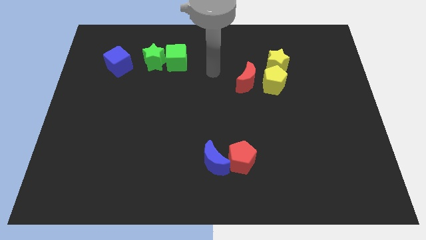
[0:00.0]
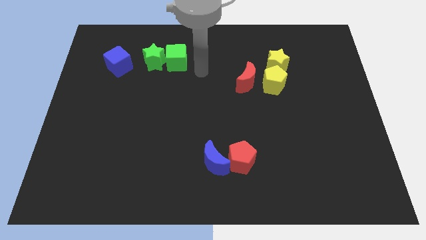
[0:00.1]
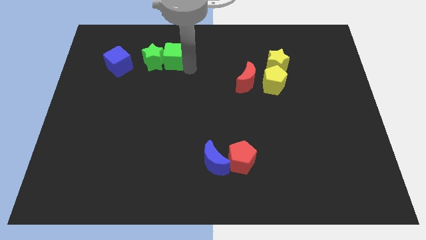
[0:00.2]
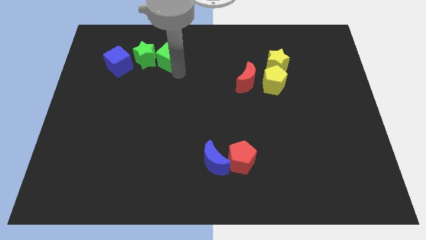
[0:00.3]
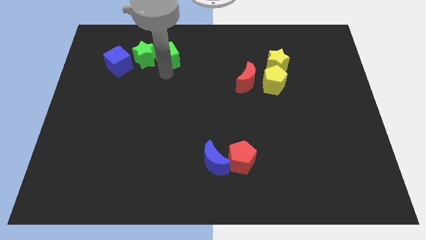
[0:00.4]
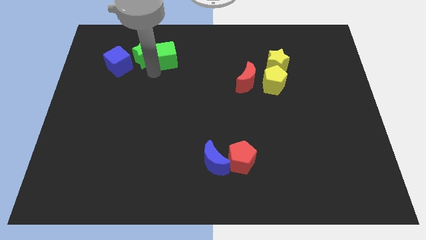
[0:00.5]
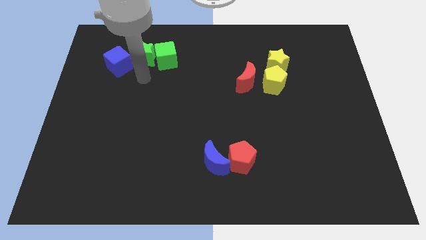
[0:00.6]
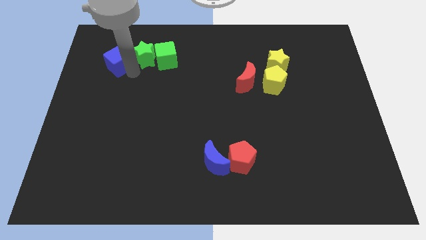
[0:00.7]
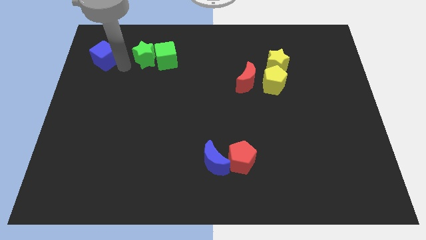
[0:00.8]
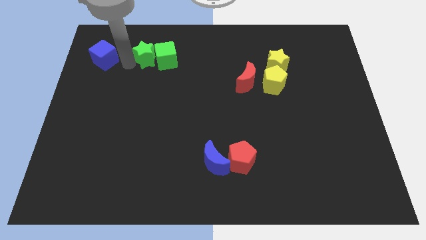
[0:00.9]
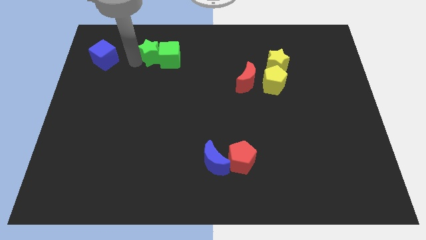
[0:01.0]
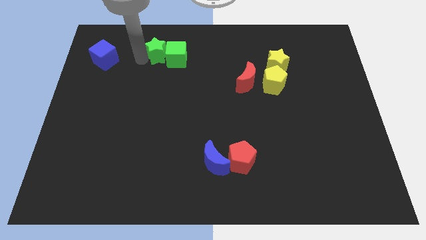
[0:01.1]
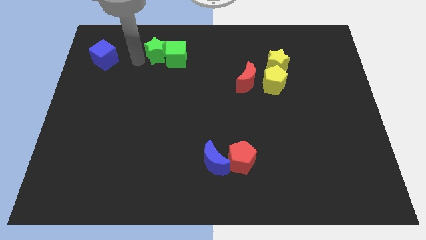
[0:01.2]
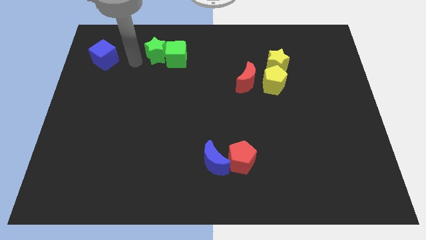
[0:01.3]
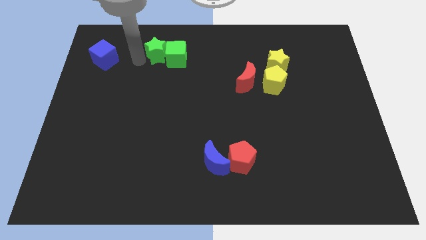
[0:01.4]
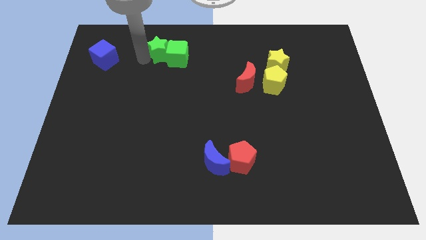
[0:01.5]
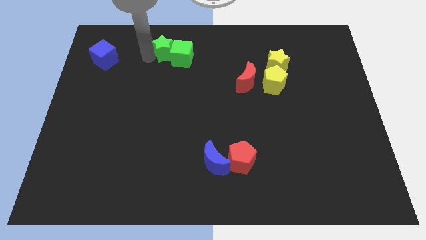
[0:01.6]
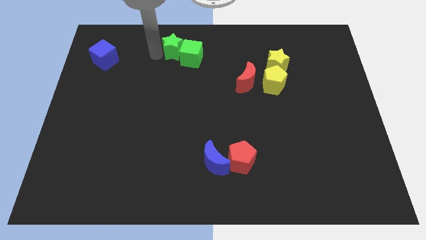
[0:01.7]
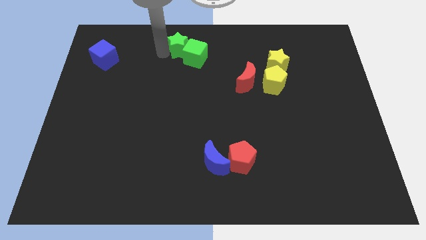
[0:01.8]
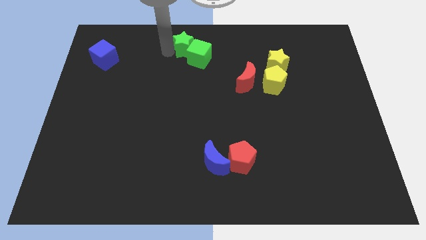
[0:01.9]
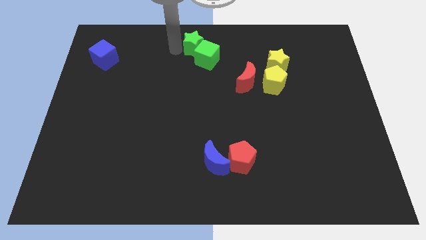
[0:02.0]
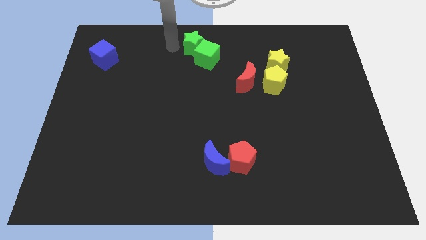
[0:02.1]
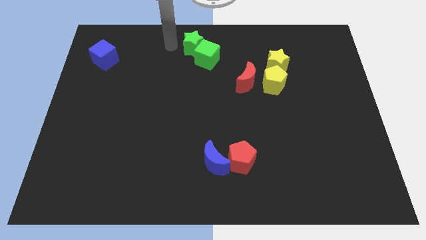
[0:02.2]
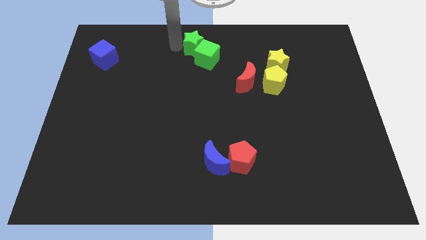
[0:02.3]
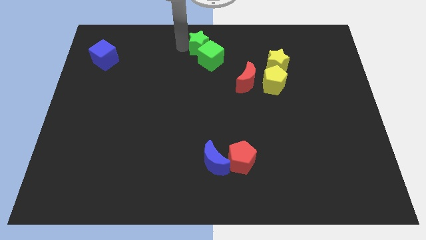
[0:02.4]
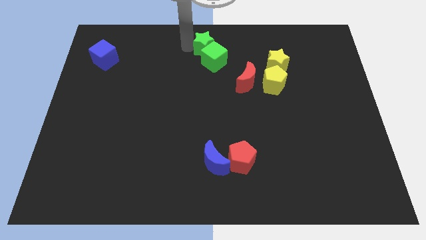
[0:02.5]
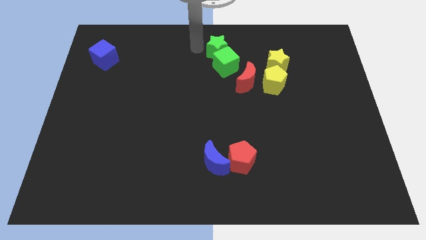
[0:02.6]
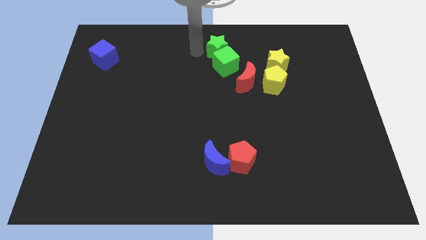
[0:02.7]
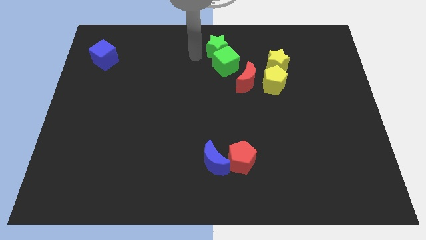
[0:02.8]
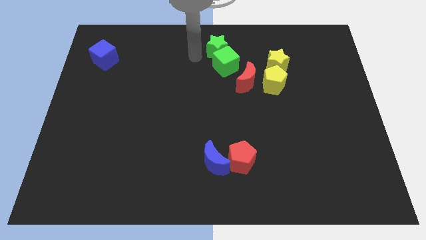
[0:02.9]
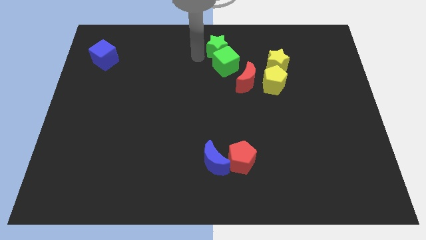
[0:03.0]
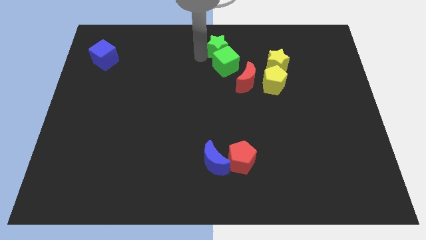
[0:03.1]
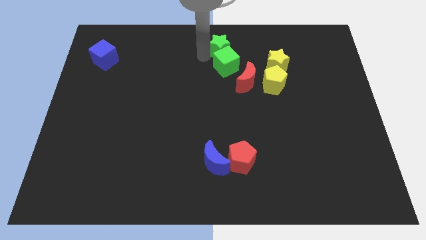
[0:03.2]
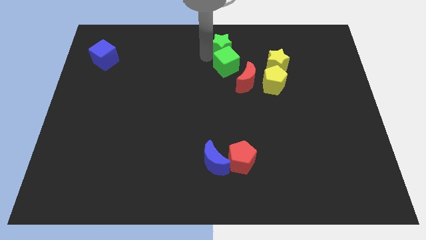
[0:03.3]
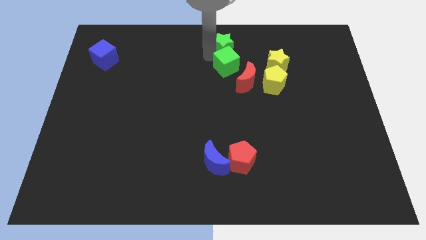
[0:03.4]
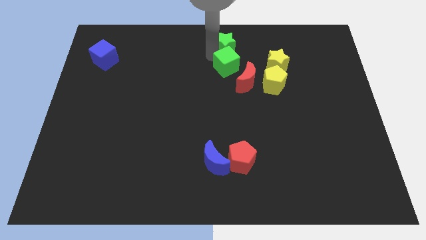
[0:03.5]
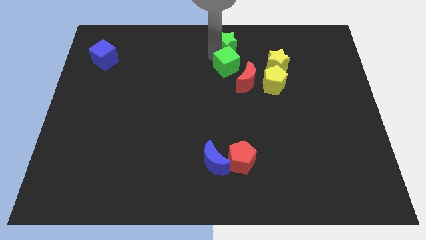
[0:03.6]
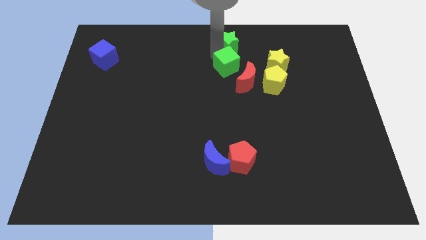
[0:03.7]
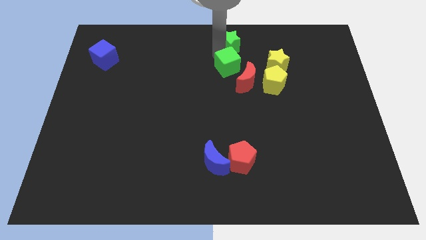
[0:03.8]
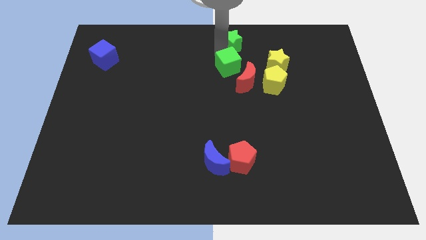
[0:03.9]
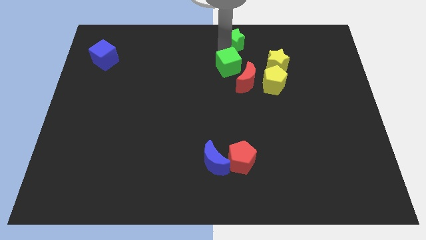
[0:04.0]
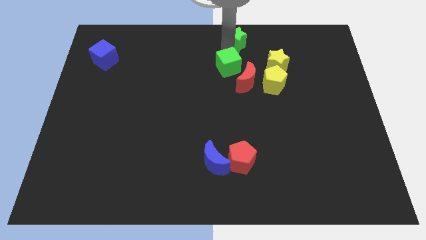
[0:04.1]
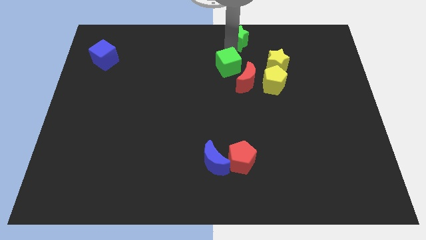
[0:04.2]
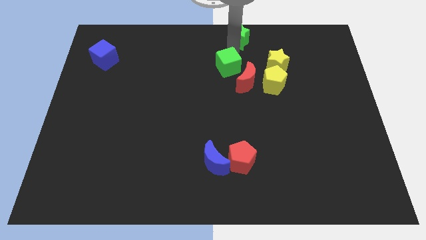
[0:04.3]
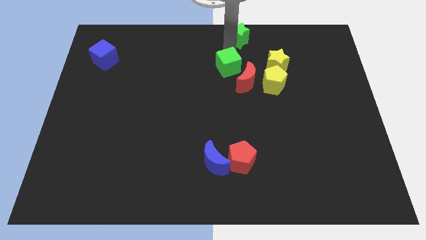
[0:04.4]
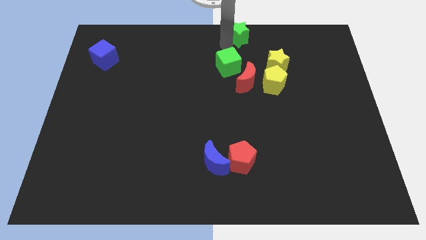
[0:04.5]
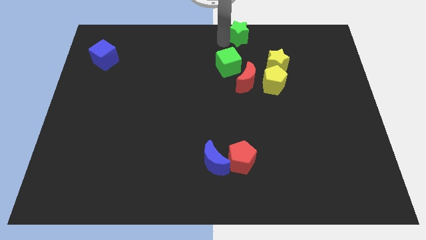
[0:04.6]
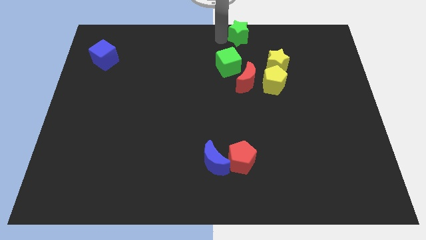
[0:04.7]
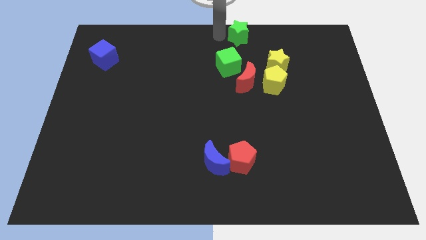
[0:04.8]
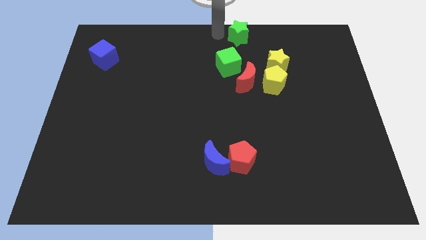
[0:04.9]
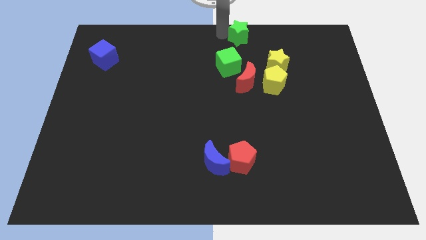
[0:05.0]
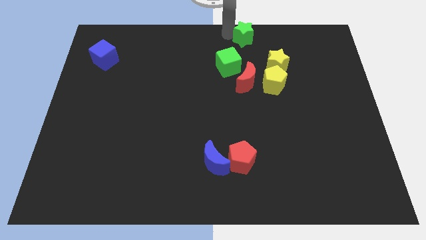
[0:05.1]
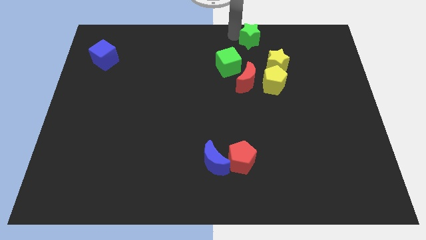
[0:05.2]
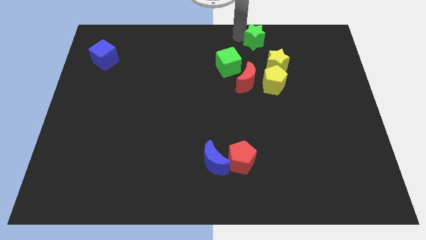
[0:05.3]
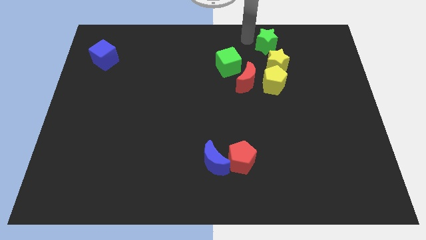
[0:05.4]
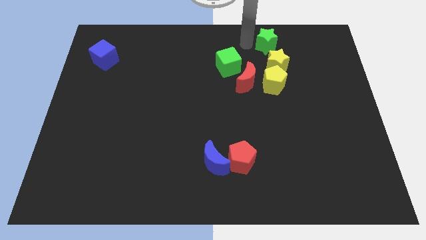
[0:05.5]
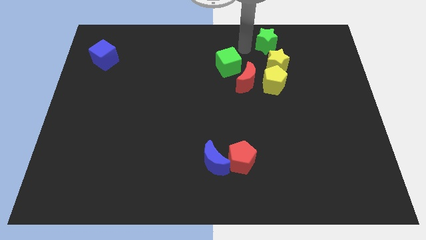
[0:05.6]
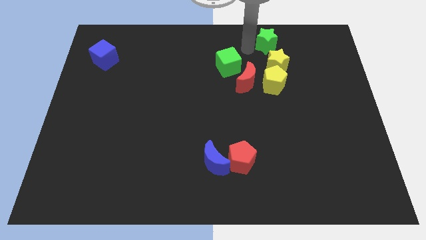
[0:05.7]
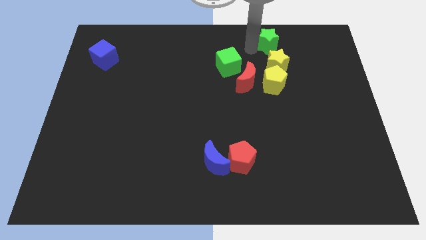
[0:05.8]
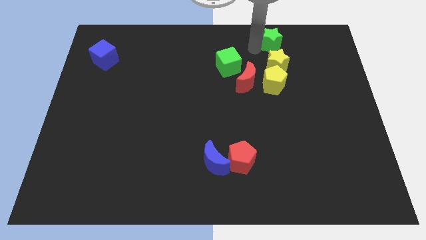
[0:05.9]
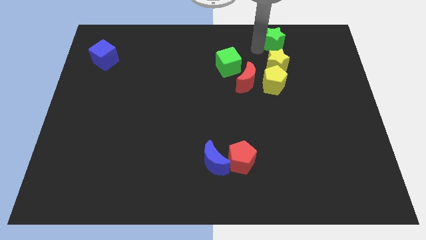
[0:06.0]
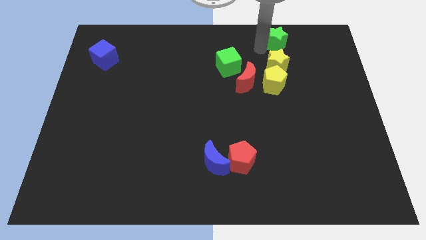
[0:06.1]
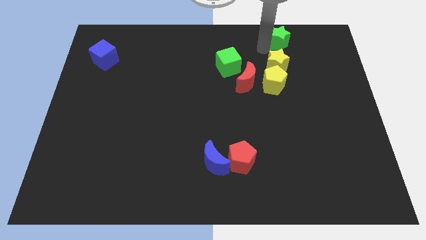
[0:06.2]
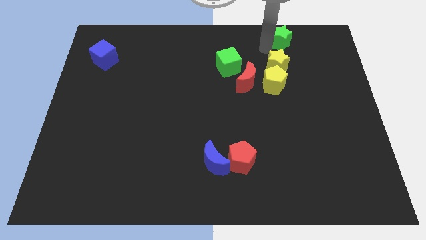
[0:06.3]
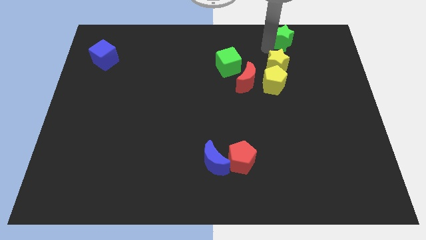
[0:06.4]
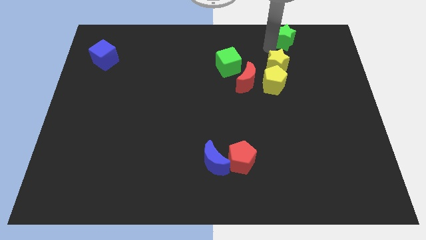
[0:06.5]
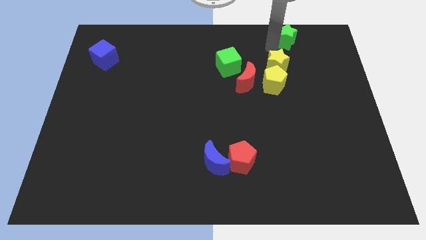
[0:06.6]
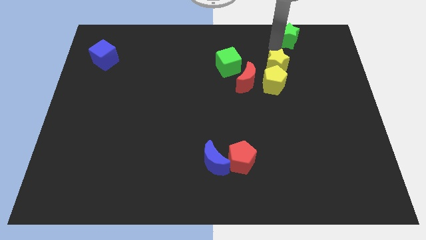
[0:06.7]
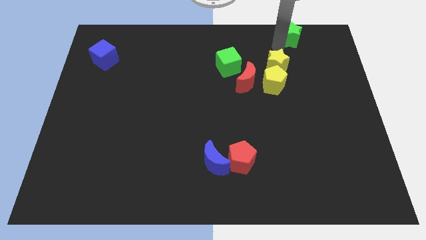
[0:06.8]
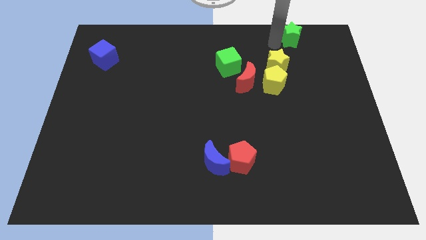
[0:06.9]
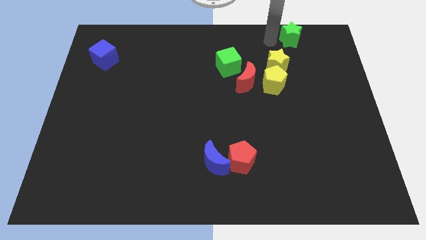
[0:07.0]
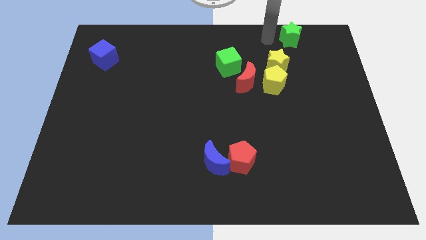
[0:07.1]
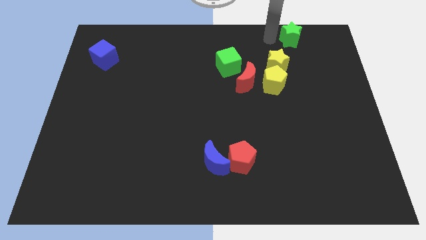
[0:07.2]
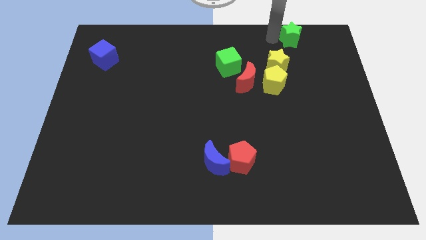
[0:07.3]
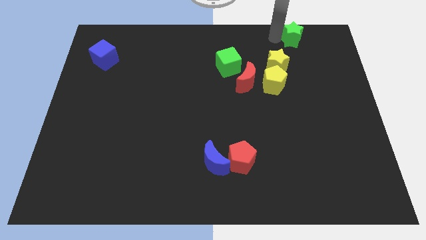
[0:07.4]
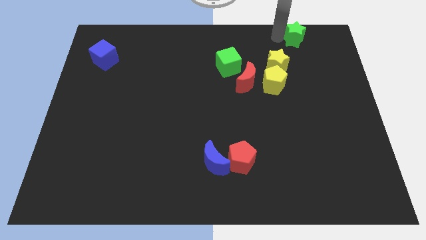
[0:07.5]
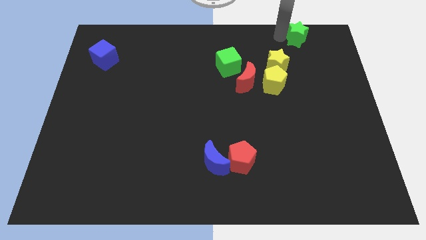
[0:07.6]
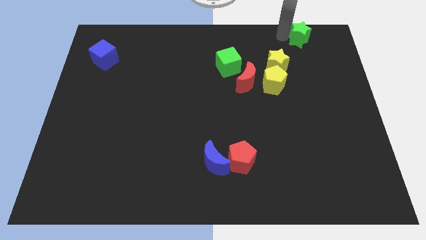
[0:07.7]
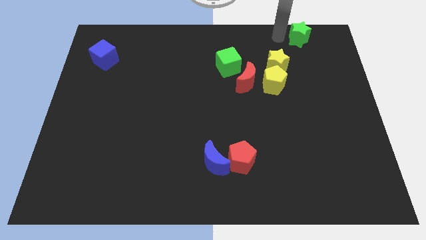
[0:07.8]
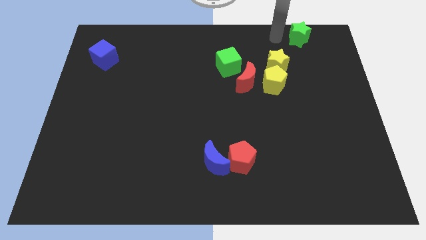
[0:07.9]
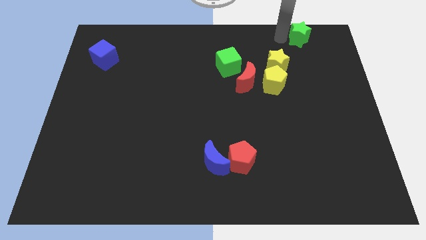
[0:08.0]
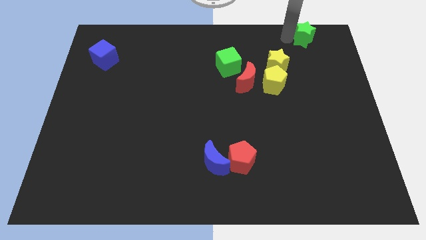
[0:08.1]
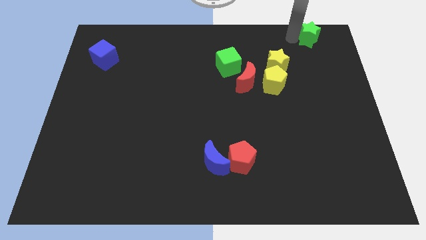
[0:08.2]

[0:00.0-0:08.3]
move the green star to the upper right corner
